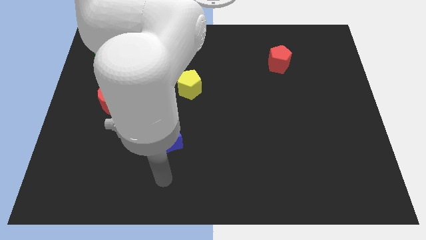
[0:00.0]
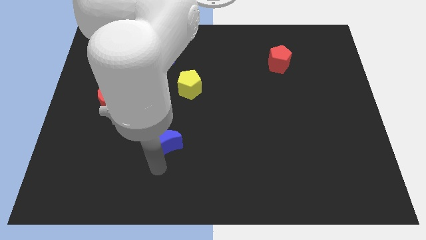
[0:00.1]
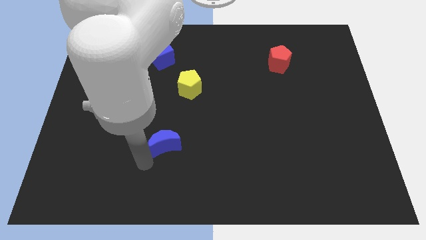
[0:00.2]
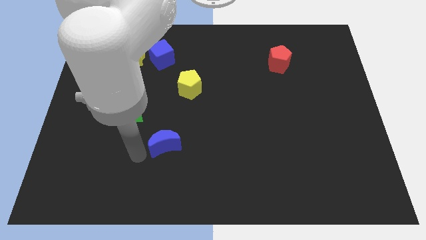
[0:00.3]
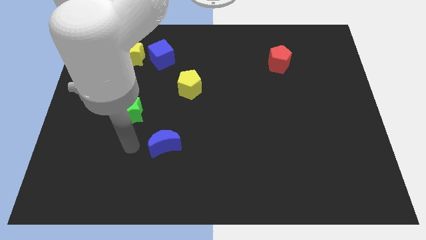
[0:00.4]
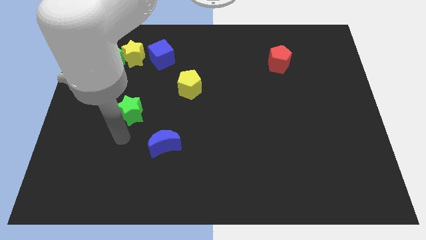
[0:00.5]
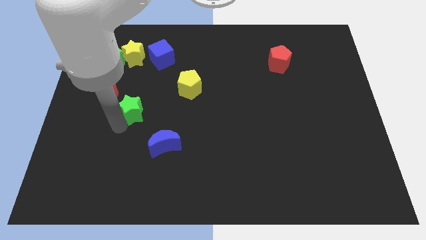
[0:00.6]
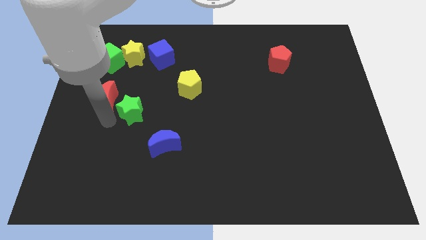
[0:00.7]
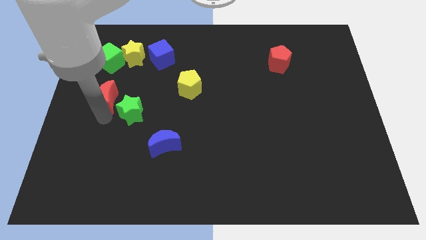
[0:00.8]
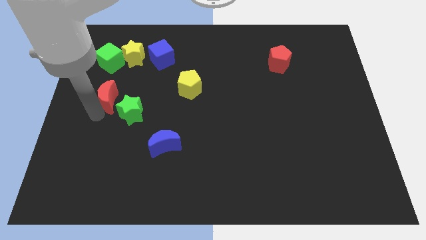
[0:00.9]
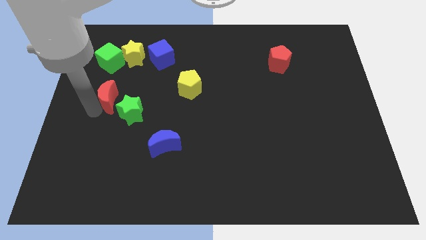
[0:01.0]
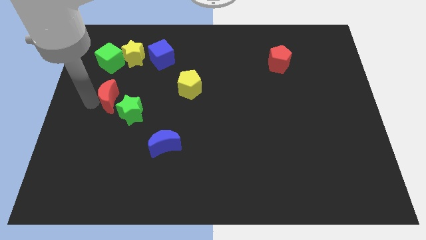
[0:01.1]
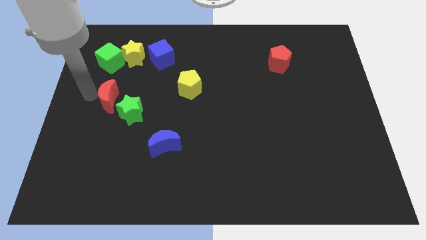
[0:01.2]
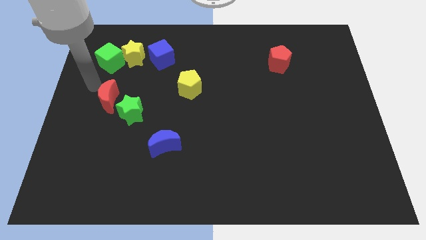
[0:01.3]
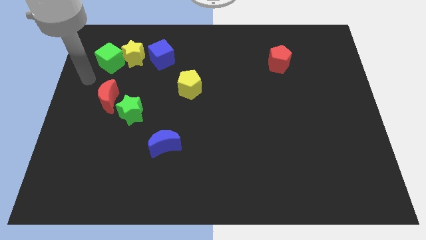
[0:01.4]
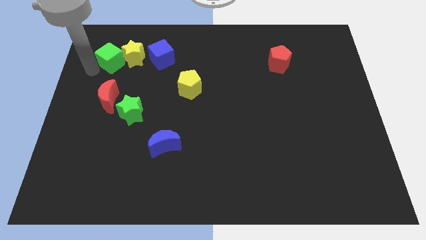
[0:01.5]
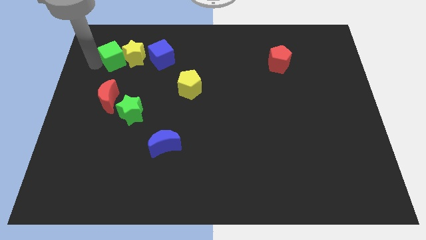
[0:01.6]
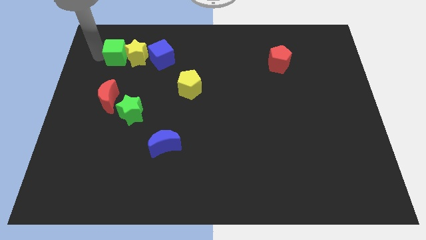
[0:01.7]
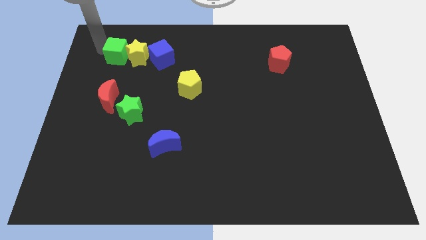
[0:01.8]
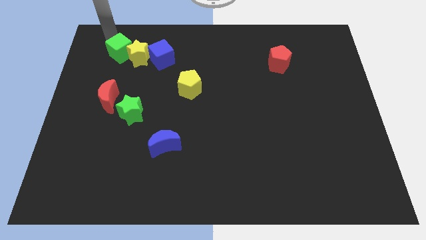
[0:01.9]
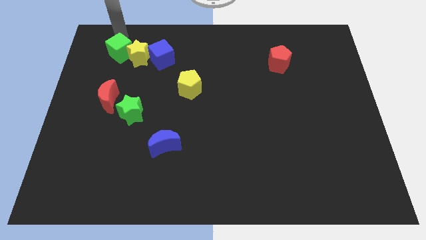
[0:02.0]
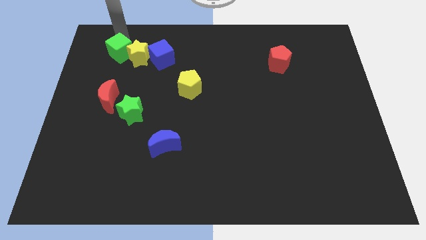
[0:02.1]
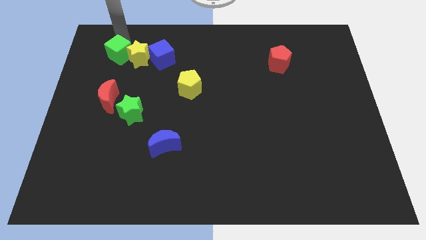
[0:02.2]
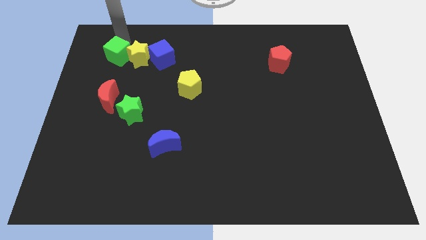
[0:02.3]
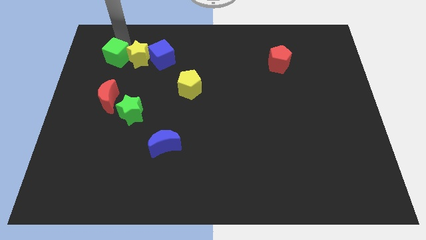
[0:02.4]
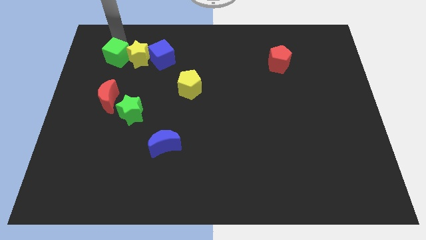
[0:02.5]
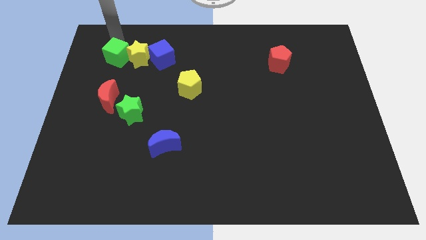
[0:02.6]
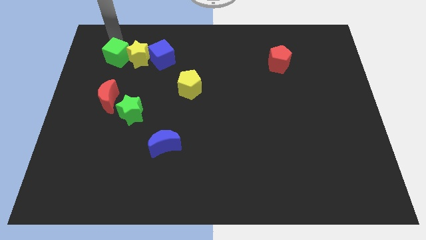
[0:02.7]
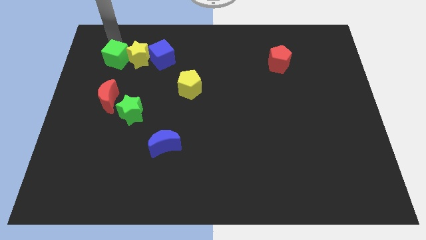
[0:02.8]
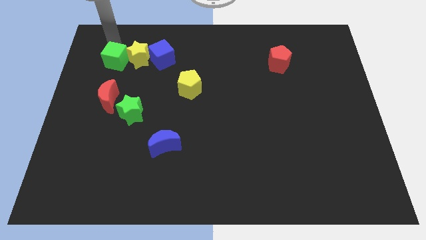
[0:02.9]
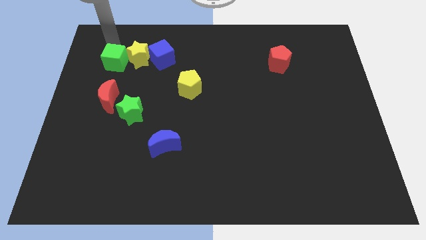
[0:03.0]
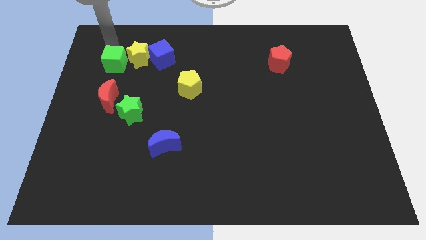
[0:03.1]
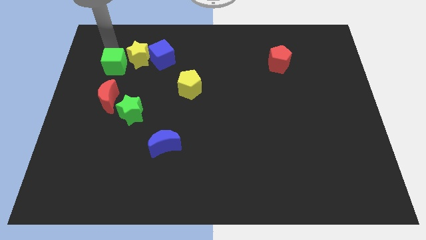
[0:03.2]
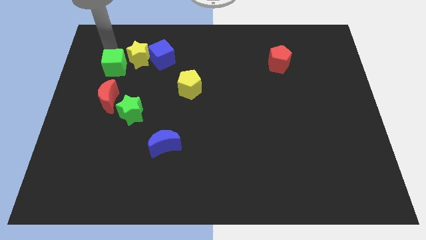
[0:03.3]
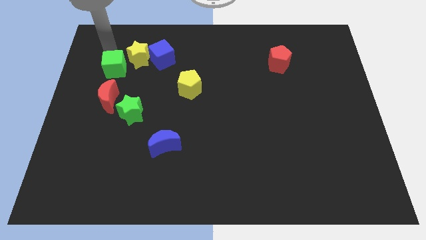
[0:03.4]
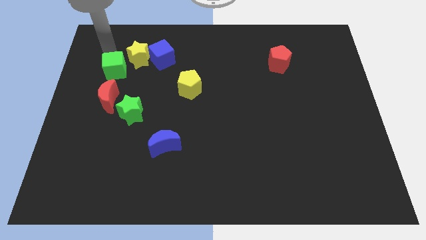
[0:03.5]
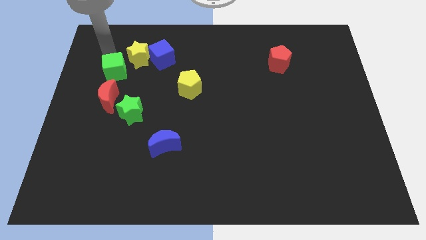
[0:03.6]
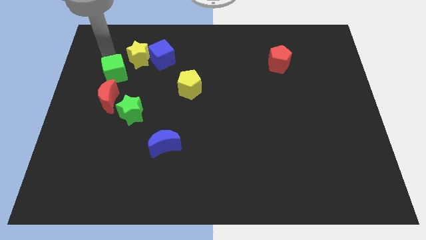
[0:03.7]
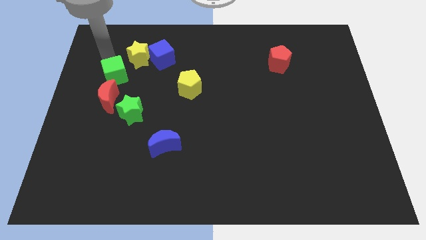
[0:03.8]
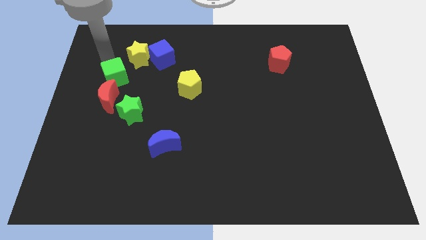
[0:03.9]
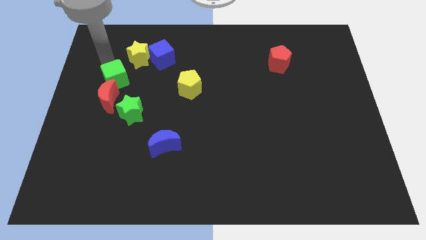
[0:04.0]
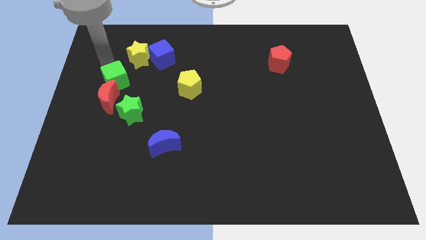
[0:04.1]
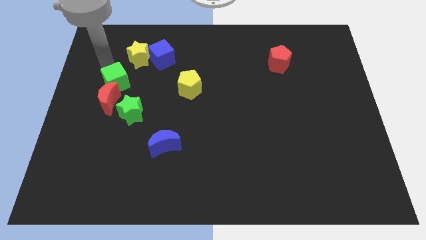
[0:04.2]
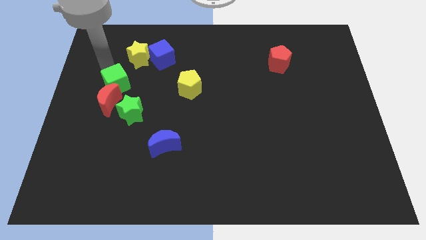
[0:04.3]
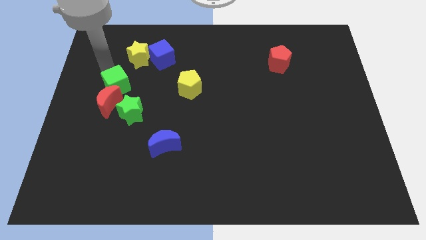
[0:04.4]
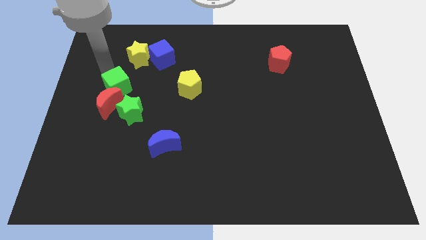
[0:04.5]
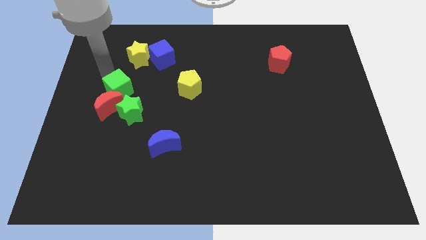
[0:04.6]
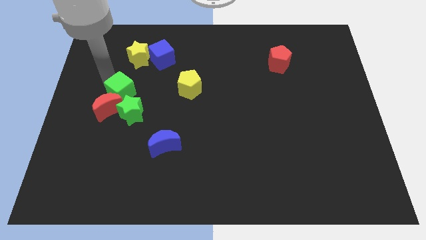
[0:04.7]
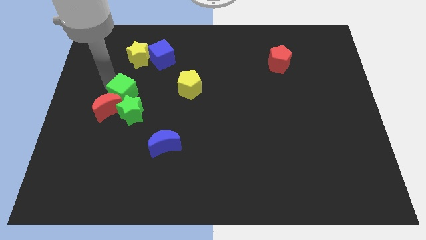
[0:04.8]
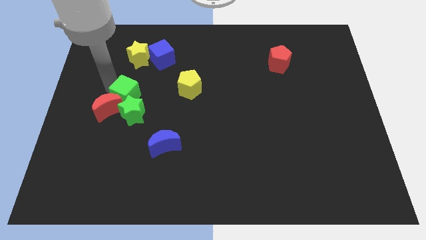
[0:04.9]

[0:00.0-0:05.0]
put the green cube to the right side of the red moon

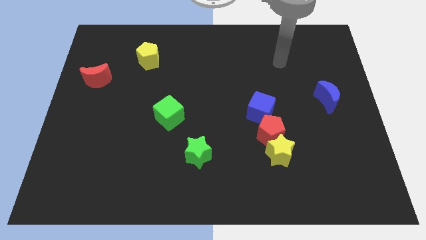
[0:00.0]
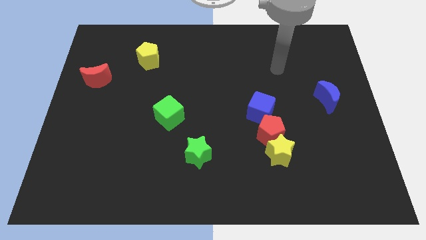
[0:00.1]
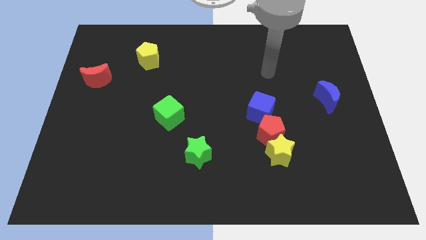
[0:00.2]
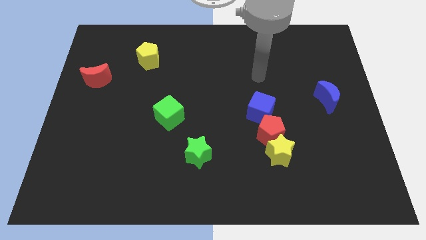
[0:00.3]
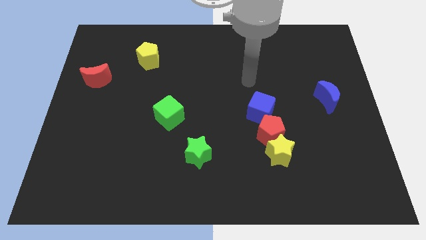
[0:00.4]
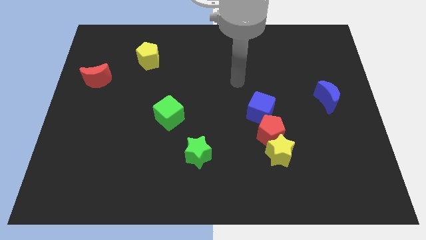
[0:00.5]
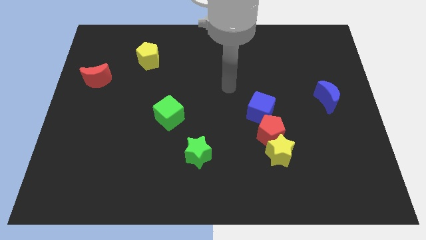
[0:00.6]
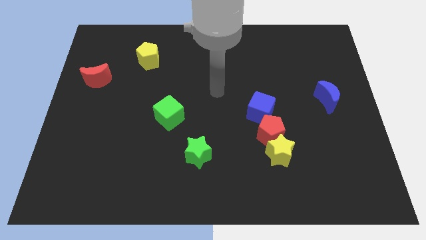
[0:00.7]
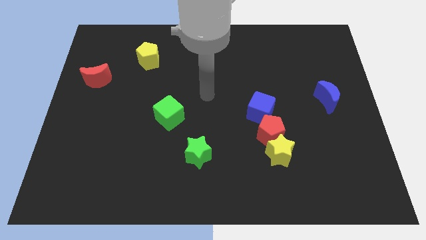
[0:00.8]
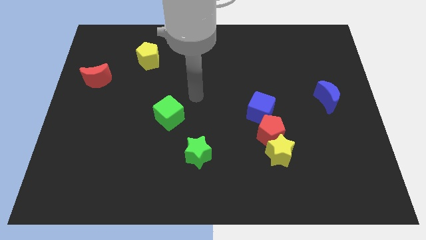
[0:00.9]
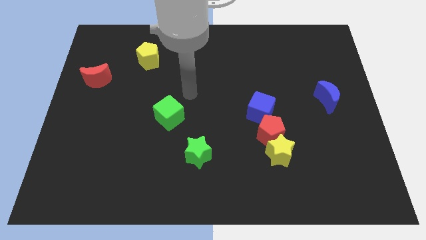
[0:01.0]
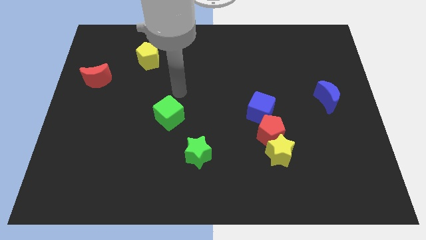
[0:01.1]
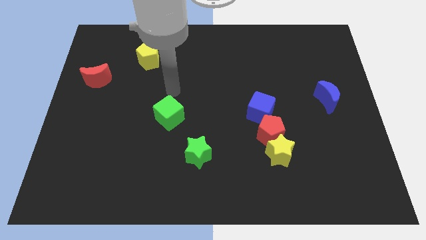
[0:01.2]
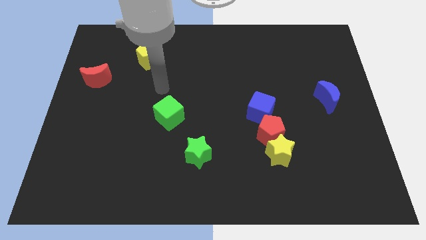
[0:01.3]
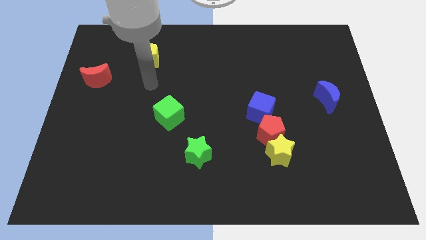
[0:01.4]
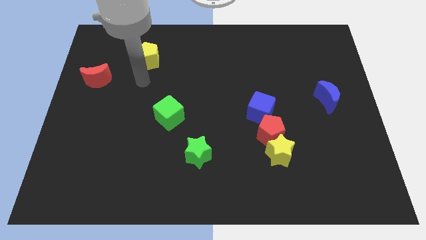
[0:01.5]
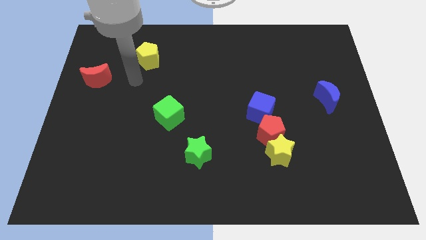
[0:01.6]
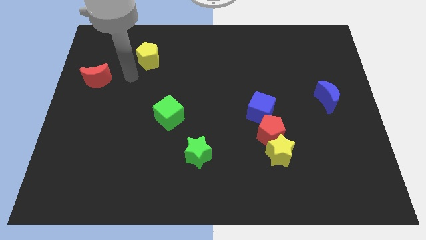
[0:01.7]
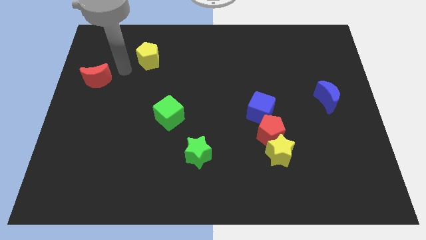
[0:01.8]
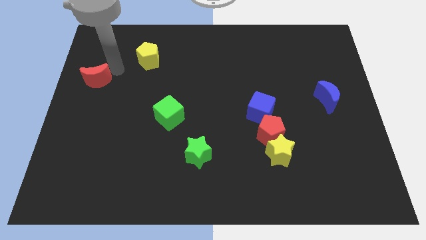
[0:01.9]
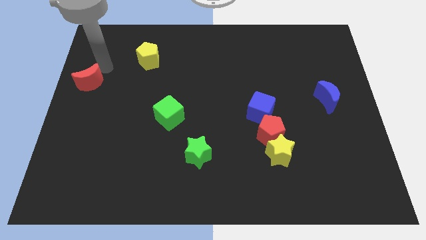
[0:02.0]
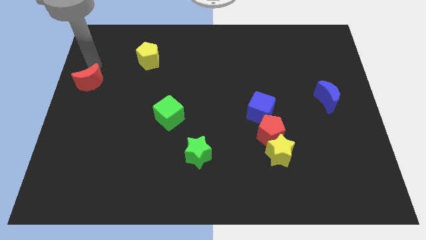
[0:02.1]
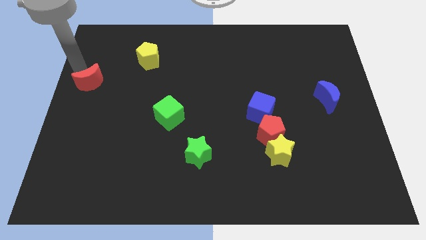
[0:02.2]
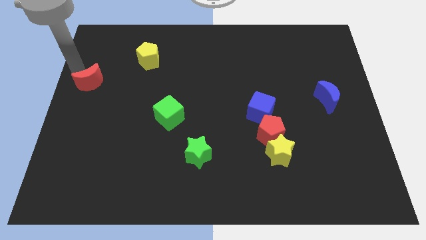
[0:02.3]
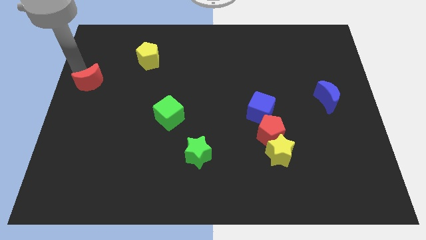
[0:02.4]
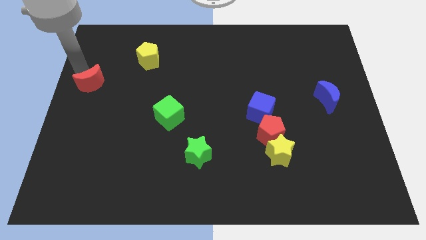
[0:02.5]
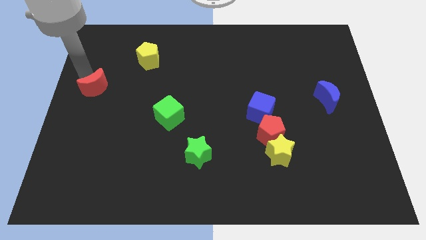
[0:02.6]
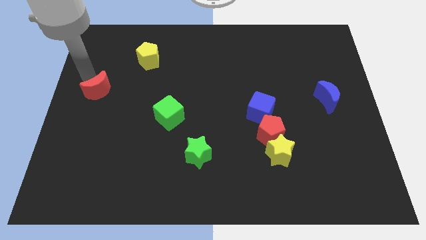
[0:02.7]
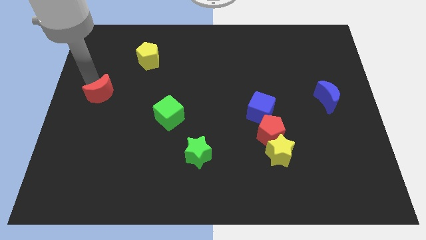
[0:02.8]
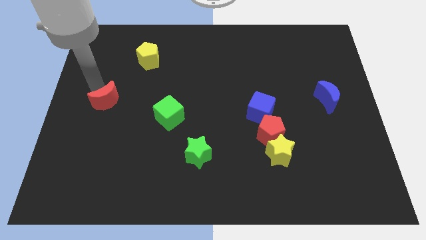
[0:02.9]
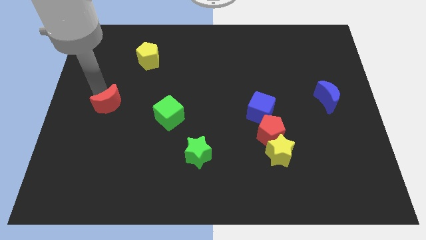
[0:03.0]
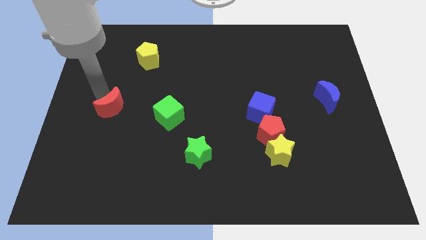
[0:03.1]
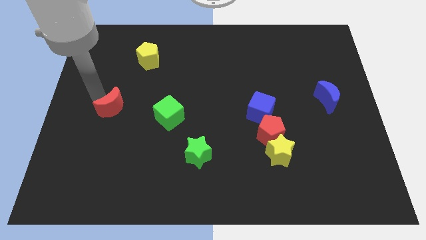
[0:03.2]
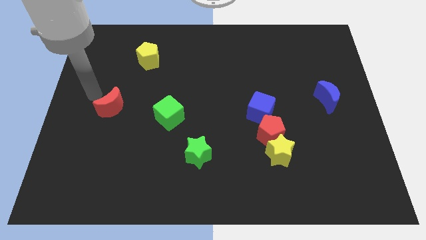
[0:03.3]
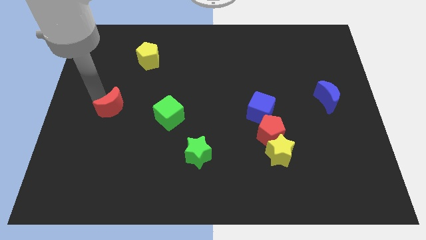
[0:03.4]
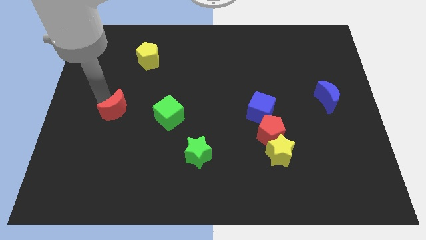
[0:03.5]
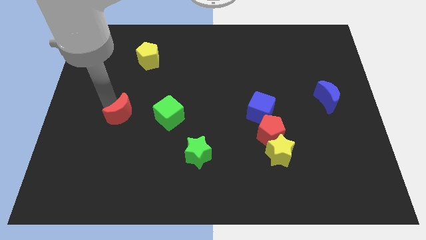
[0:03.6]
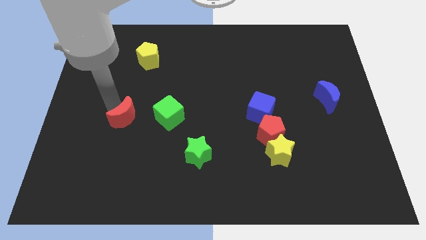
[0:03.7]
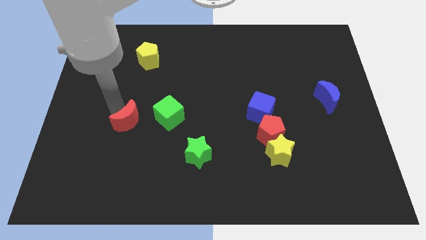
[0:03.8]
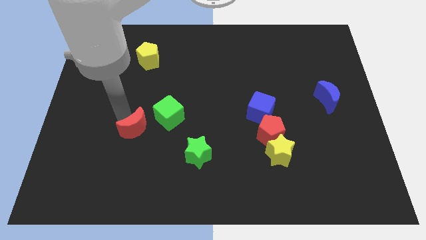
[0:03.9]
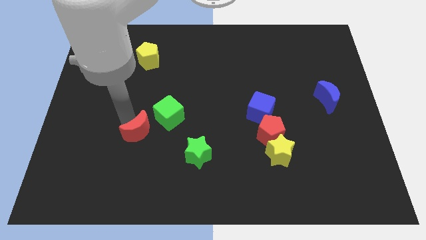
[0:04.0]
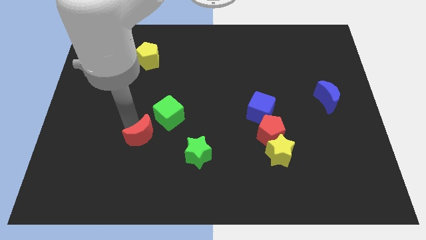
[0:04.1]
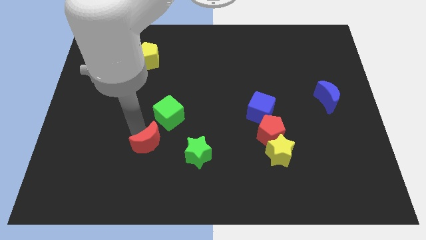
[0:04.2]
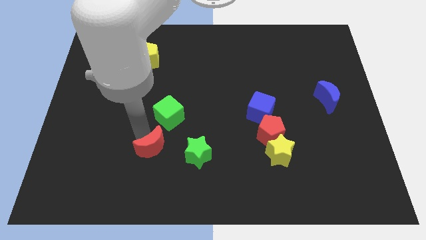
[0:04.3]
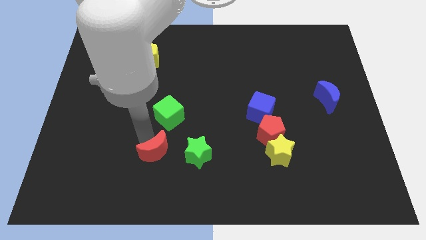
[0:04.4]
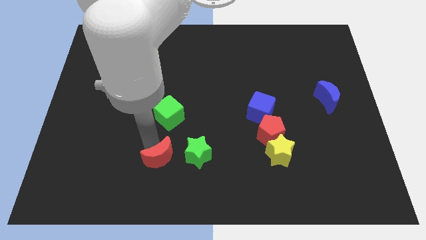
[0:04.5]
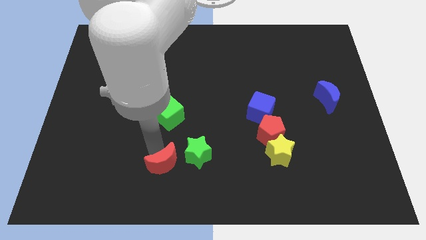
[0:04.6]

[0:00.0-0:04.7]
put the red moon diagonally down and to the left of the green star
